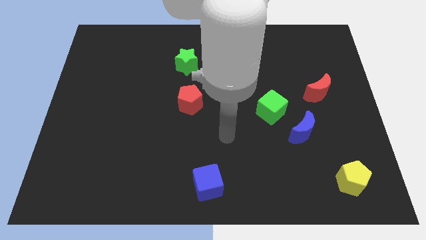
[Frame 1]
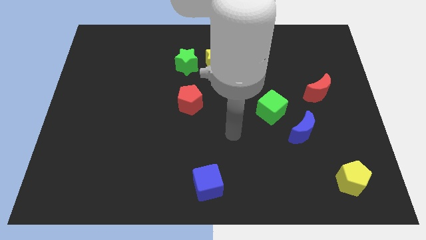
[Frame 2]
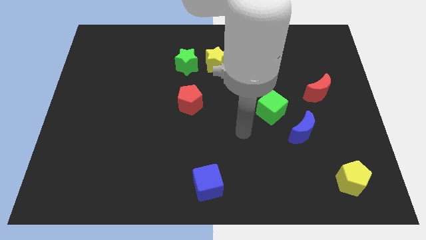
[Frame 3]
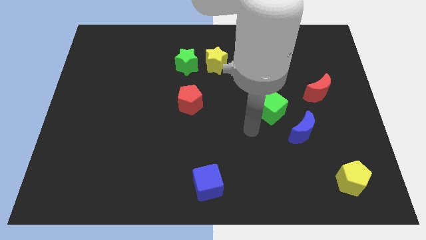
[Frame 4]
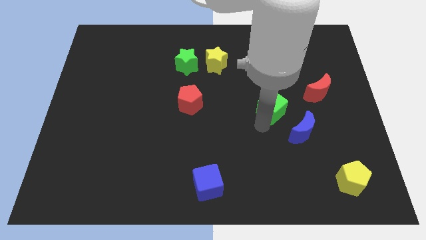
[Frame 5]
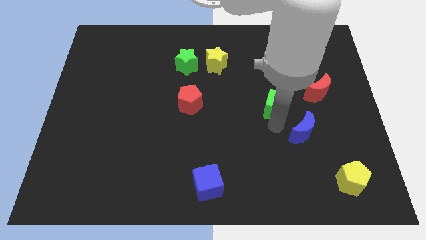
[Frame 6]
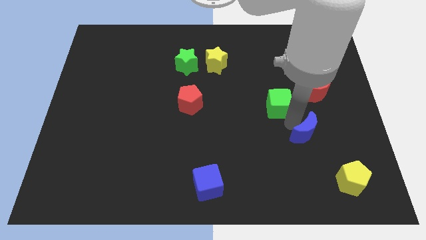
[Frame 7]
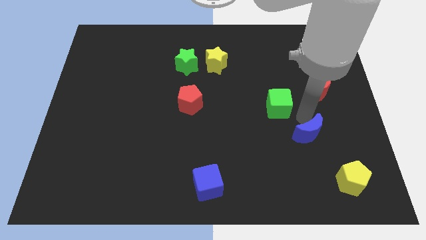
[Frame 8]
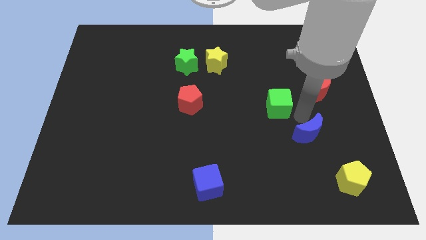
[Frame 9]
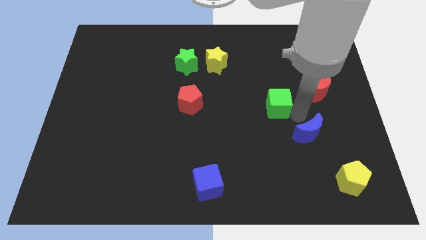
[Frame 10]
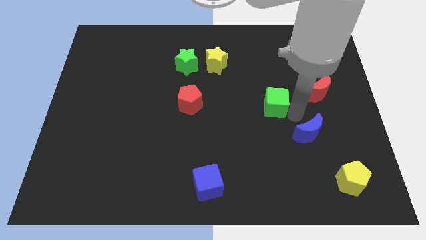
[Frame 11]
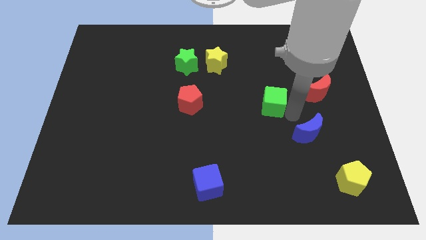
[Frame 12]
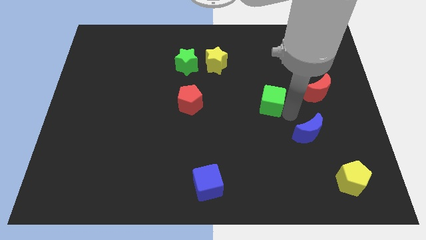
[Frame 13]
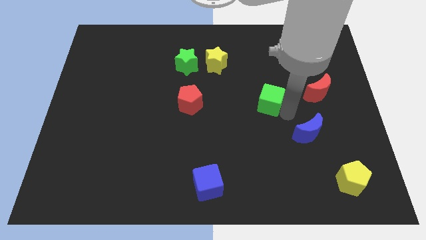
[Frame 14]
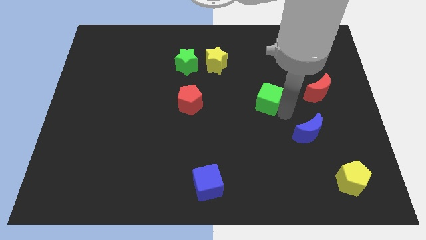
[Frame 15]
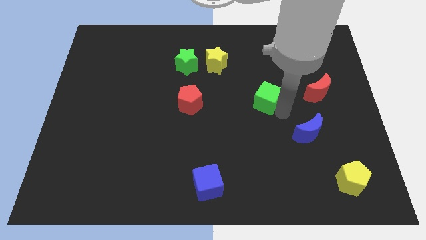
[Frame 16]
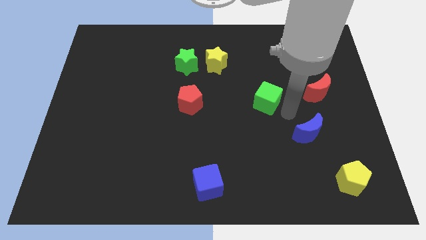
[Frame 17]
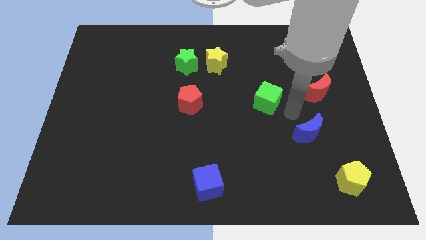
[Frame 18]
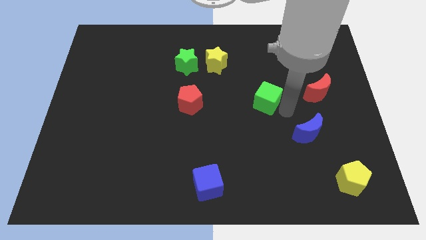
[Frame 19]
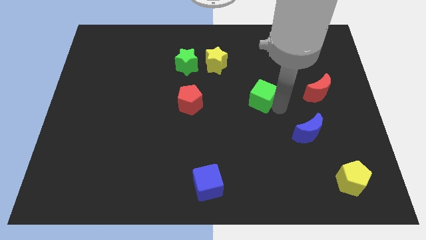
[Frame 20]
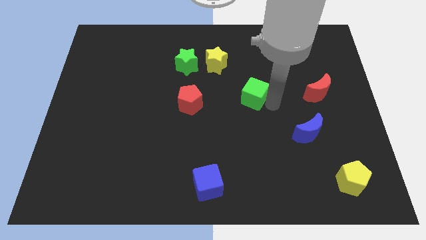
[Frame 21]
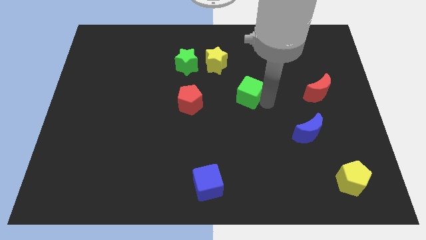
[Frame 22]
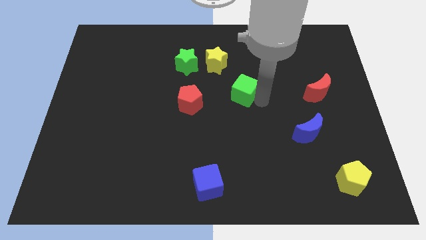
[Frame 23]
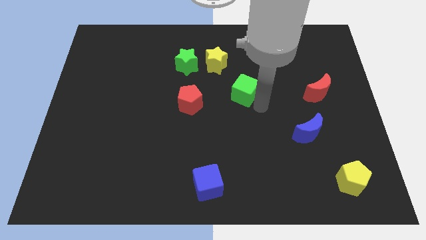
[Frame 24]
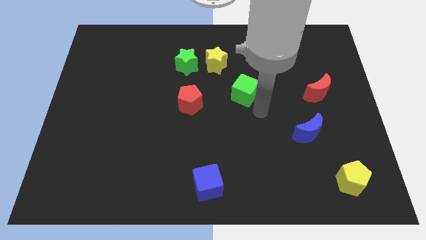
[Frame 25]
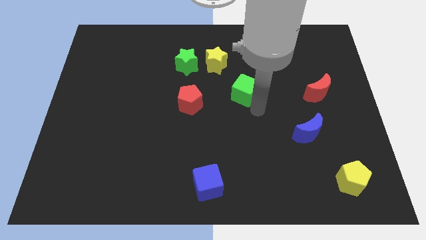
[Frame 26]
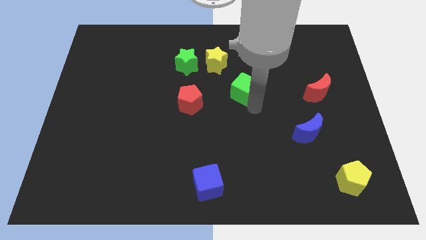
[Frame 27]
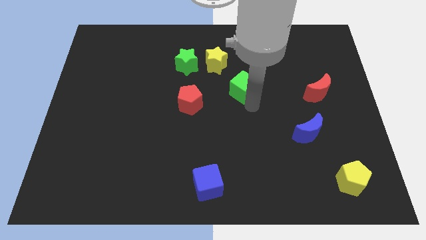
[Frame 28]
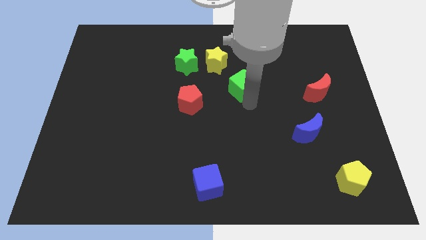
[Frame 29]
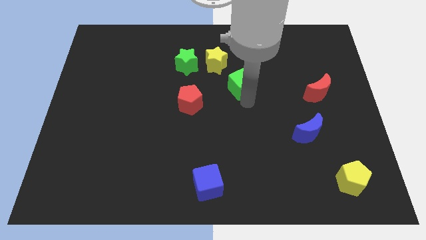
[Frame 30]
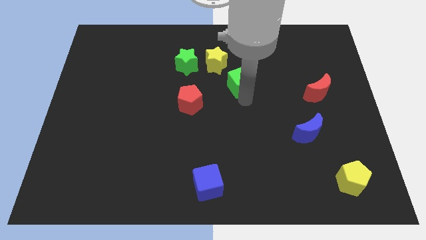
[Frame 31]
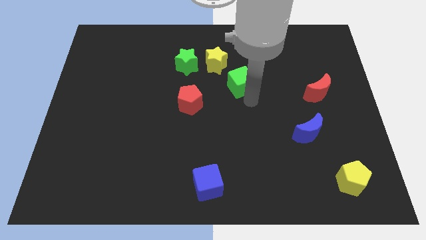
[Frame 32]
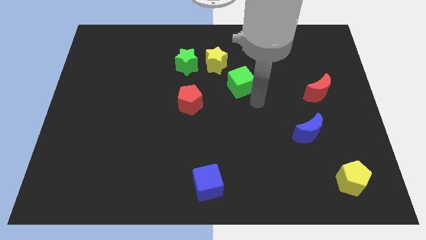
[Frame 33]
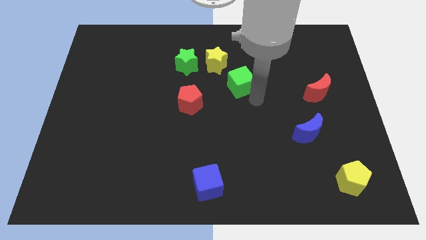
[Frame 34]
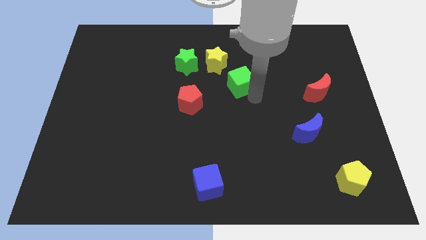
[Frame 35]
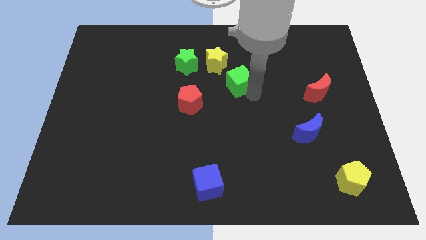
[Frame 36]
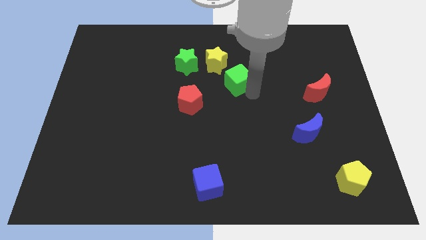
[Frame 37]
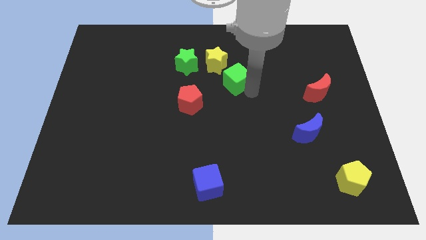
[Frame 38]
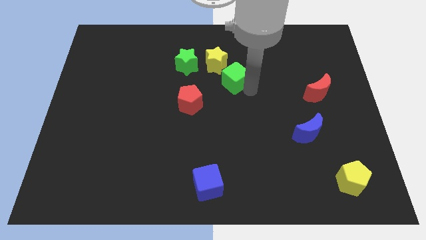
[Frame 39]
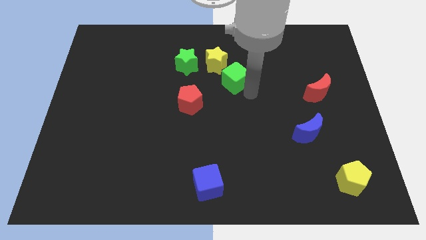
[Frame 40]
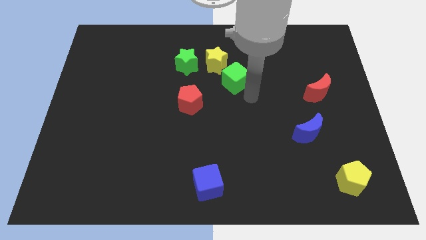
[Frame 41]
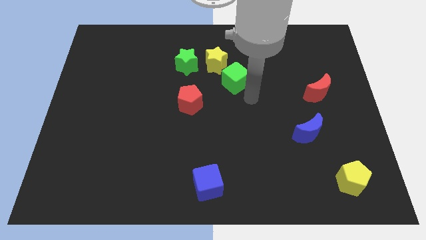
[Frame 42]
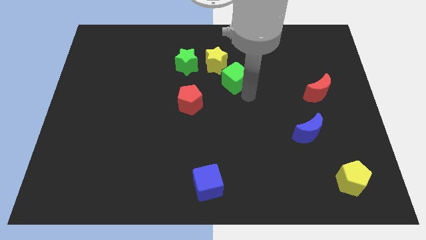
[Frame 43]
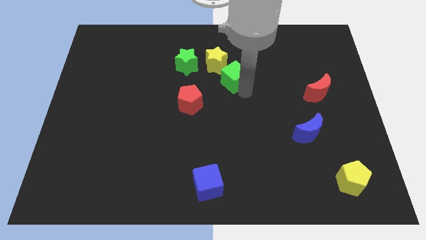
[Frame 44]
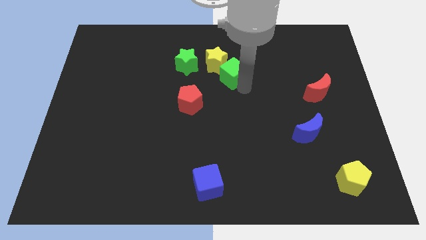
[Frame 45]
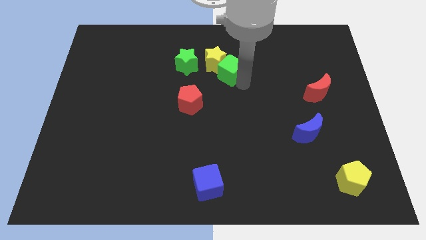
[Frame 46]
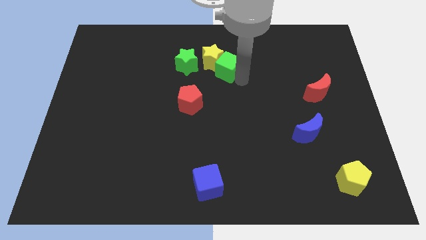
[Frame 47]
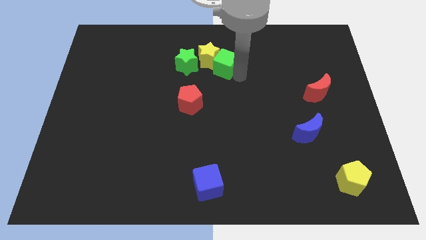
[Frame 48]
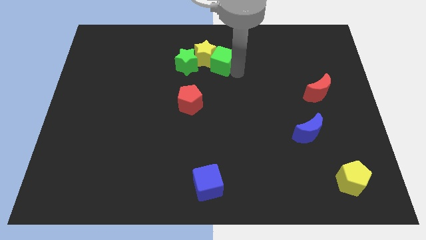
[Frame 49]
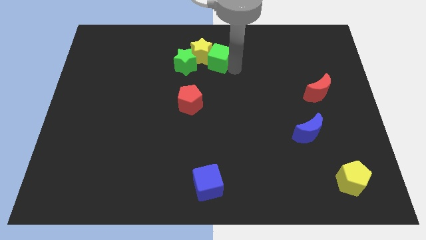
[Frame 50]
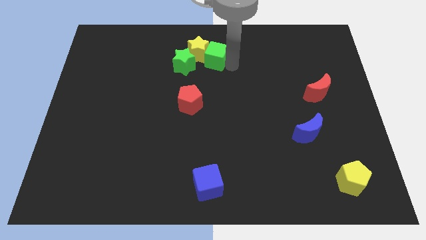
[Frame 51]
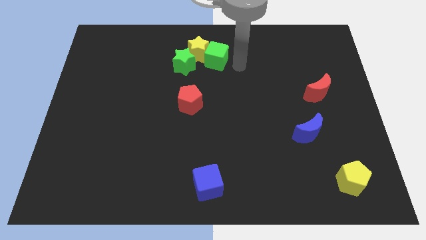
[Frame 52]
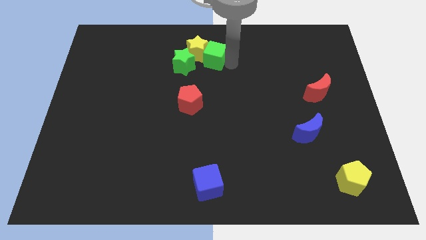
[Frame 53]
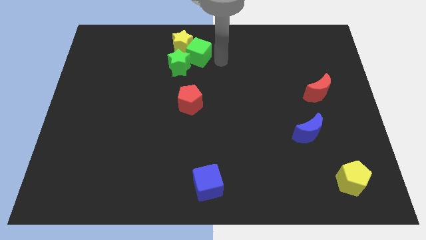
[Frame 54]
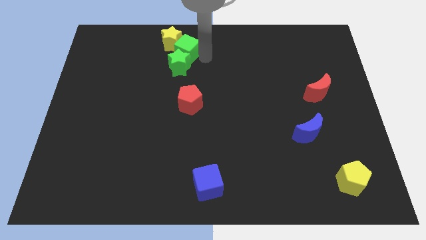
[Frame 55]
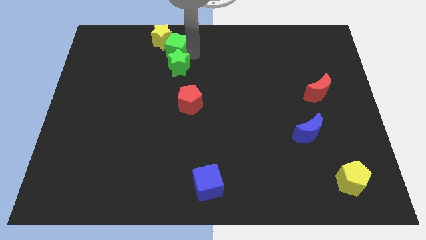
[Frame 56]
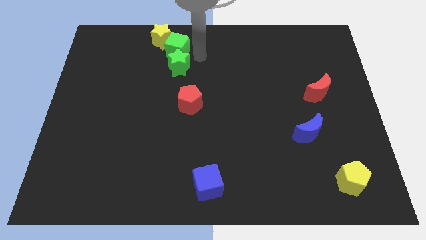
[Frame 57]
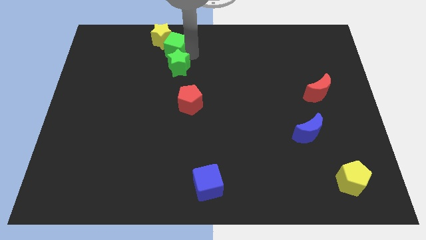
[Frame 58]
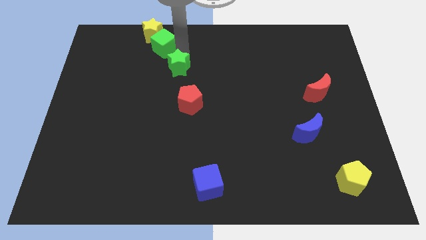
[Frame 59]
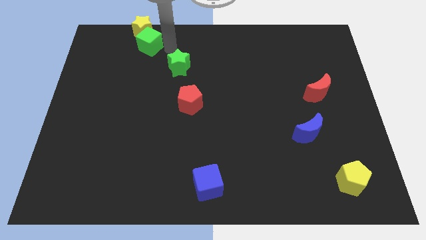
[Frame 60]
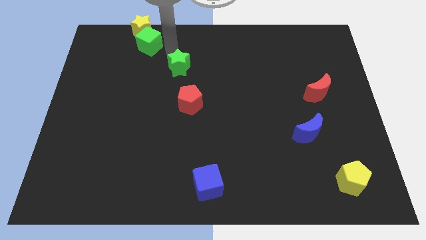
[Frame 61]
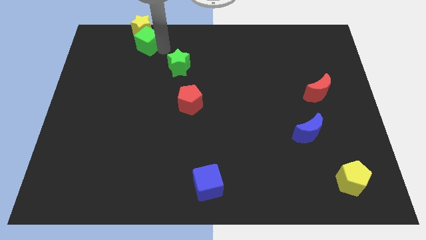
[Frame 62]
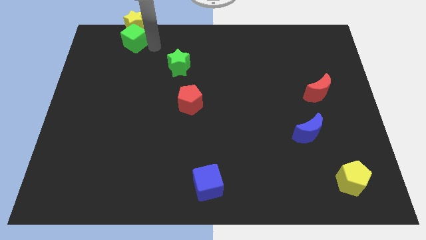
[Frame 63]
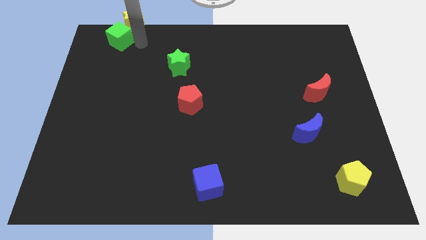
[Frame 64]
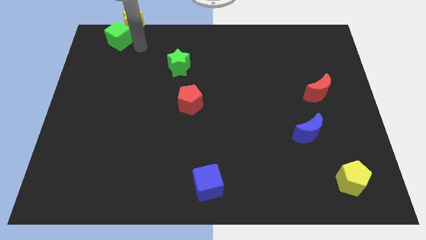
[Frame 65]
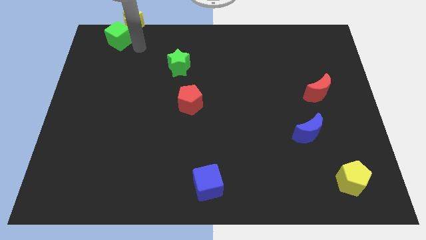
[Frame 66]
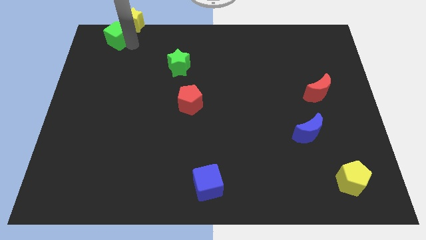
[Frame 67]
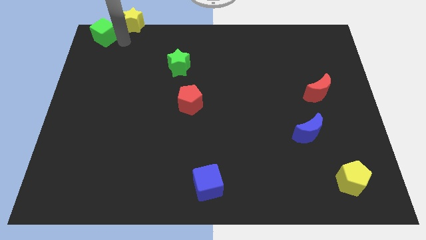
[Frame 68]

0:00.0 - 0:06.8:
put the green cube to the top left corner

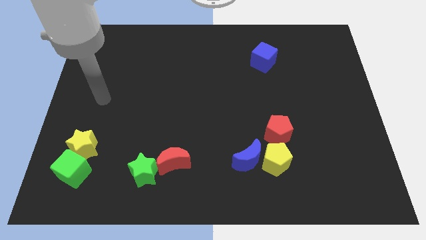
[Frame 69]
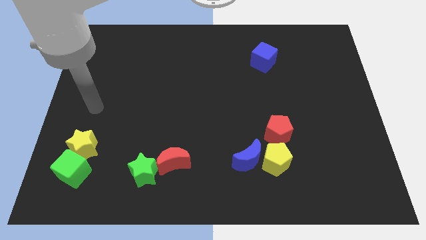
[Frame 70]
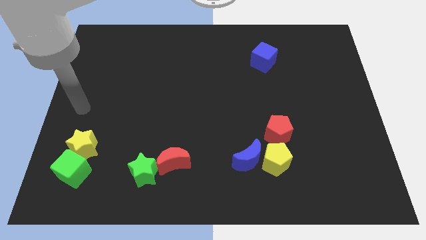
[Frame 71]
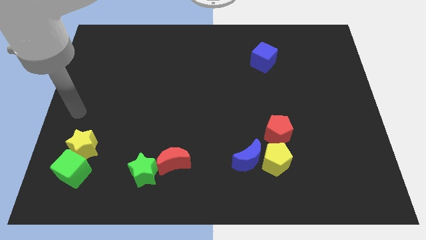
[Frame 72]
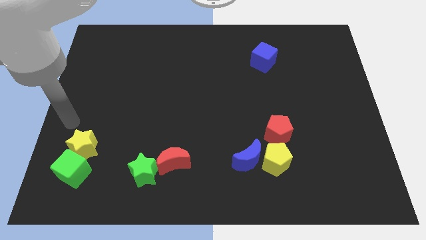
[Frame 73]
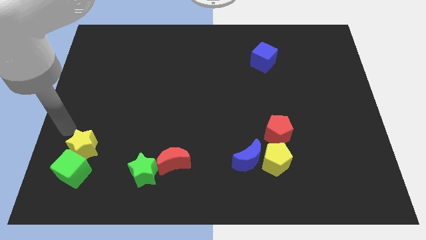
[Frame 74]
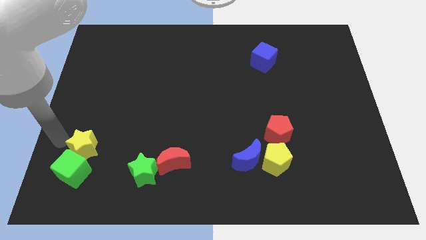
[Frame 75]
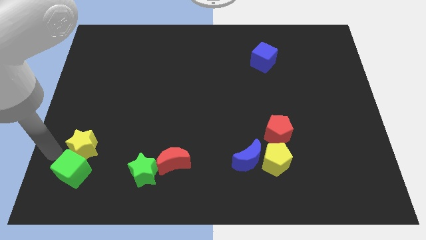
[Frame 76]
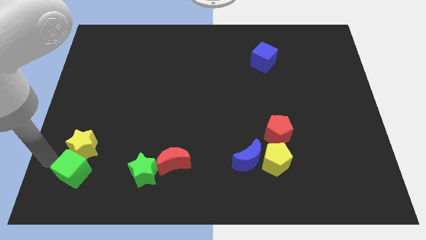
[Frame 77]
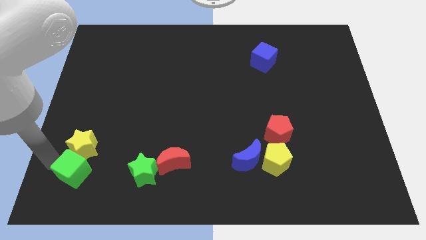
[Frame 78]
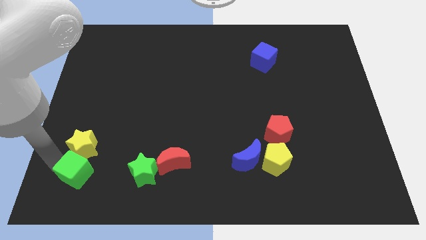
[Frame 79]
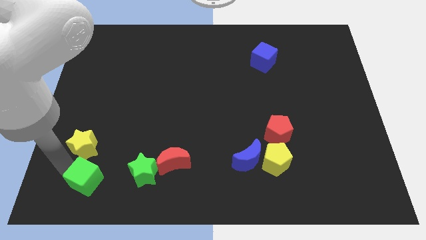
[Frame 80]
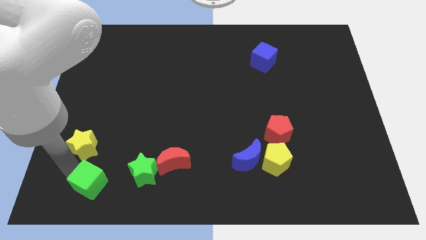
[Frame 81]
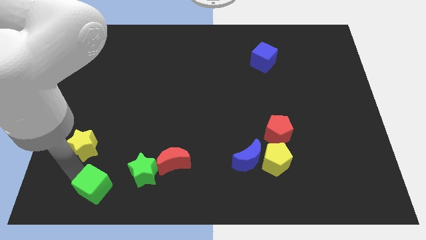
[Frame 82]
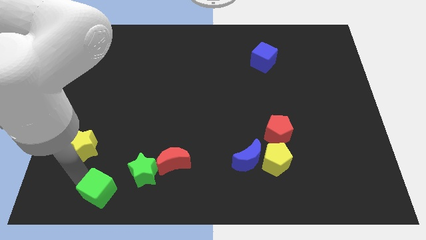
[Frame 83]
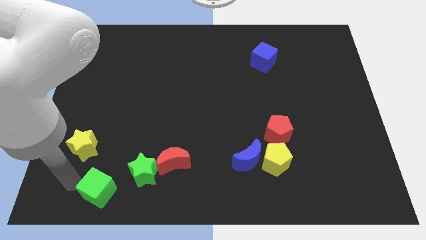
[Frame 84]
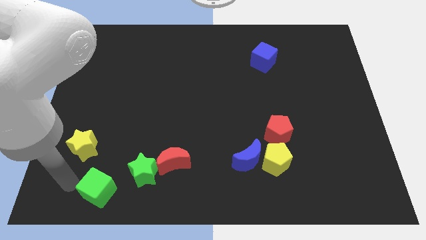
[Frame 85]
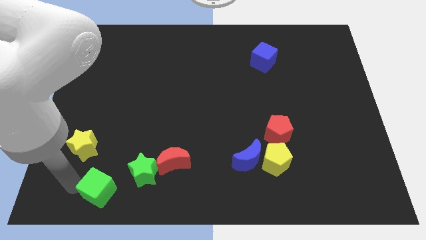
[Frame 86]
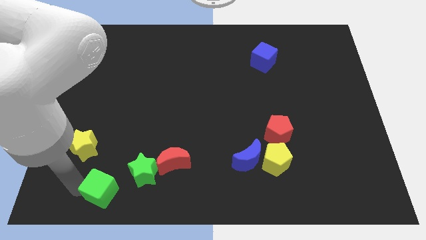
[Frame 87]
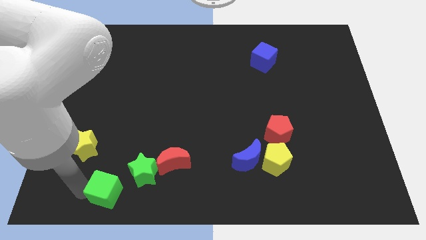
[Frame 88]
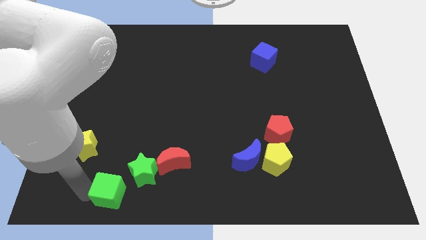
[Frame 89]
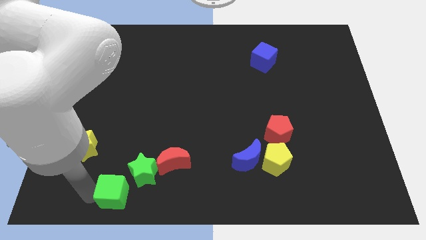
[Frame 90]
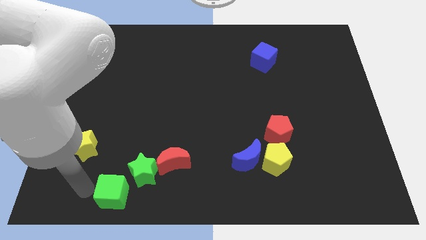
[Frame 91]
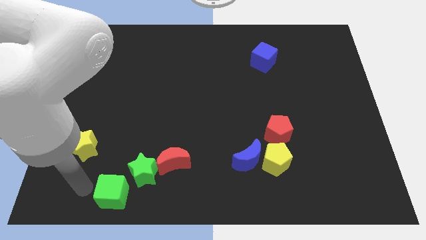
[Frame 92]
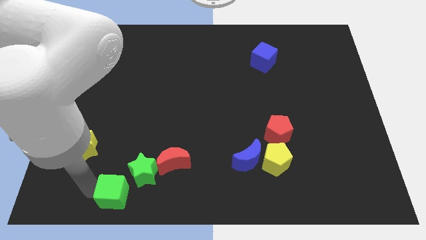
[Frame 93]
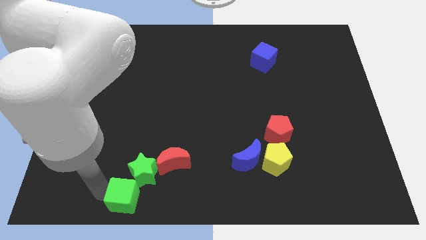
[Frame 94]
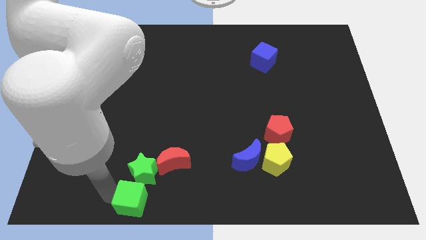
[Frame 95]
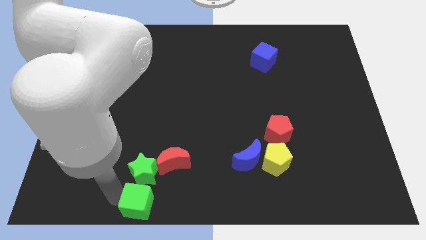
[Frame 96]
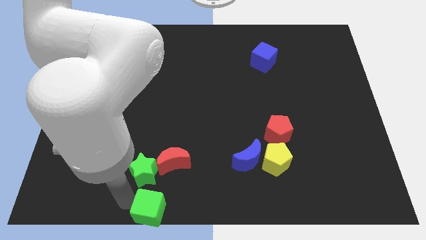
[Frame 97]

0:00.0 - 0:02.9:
move the green cube to the bottom side
